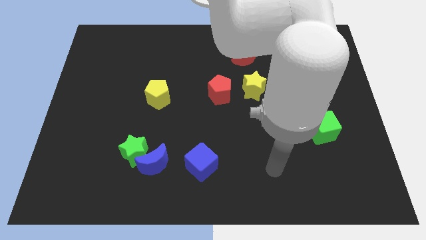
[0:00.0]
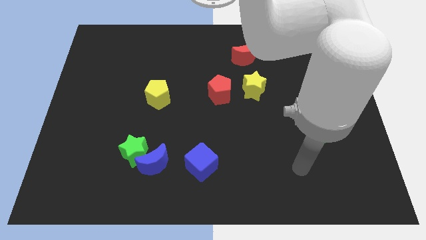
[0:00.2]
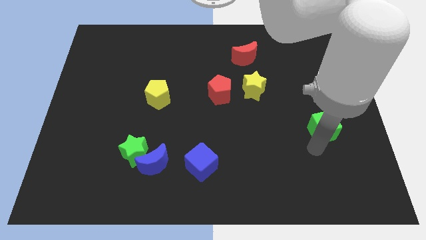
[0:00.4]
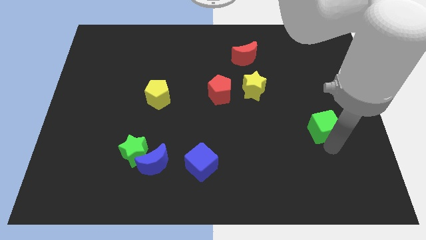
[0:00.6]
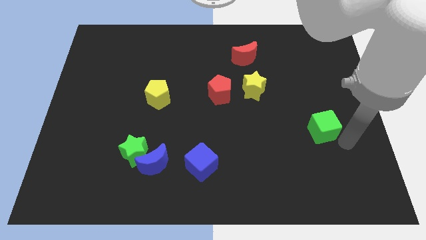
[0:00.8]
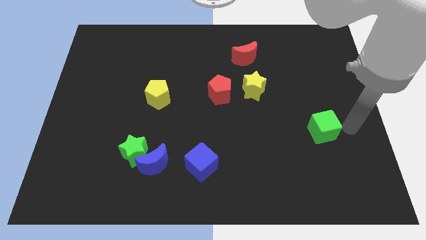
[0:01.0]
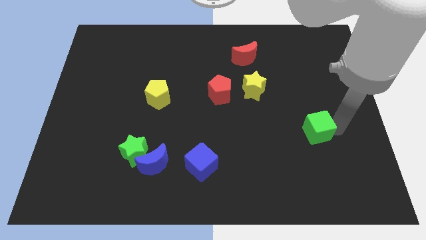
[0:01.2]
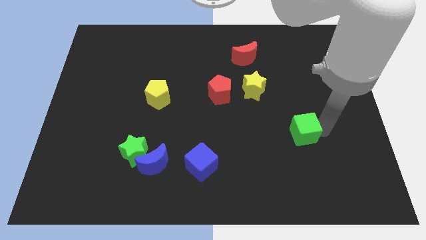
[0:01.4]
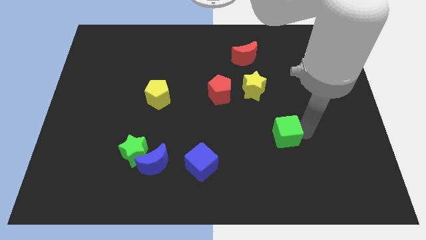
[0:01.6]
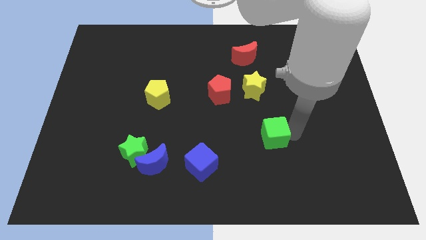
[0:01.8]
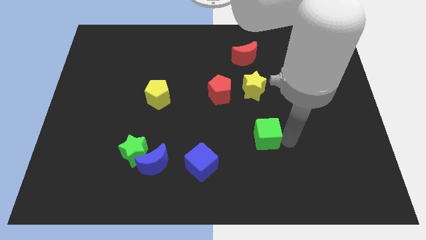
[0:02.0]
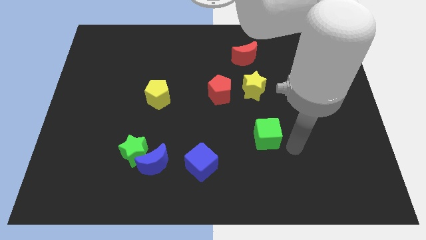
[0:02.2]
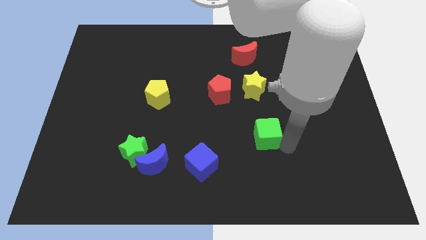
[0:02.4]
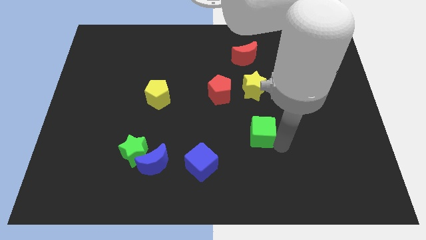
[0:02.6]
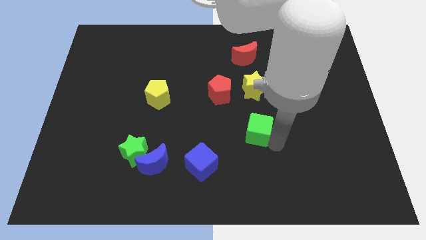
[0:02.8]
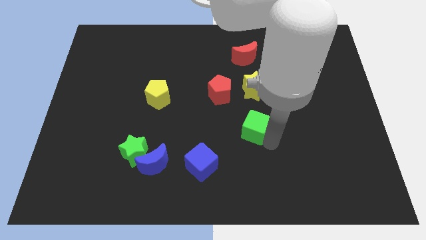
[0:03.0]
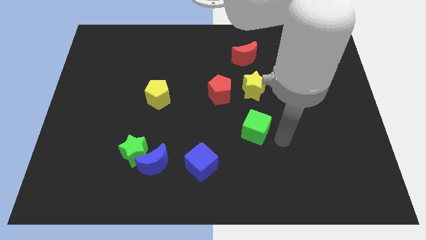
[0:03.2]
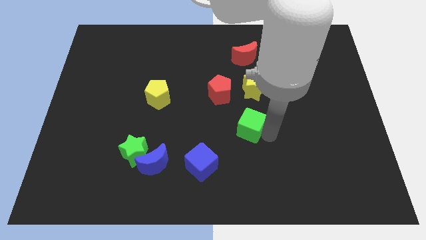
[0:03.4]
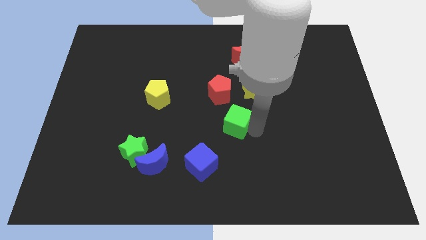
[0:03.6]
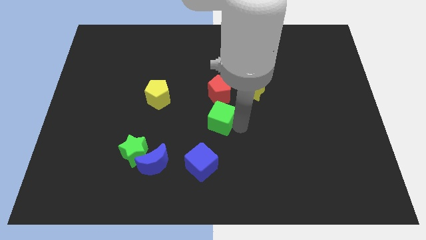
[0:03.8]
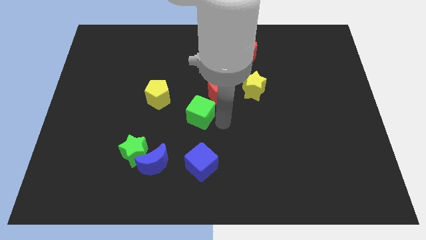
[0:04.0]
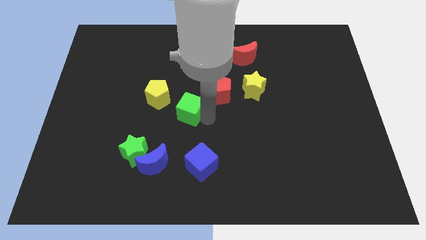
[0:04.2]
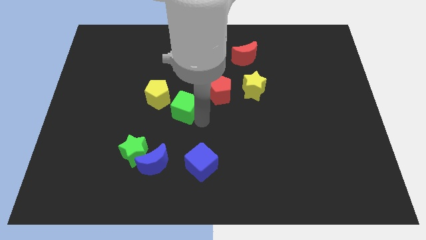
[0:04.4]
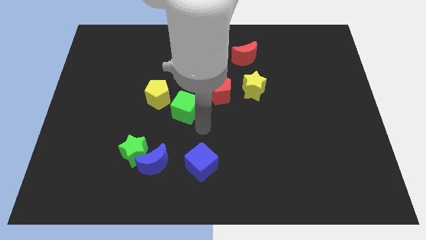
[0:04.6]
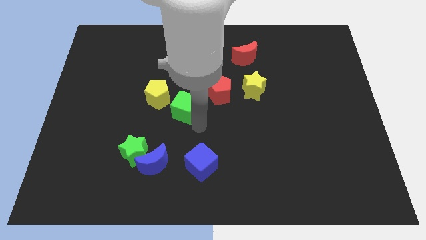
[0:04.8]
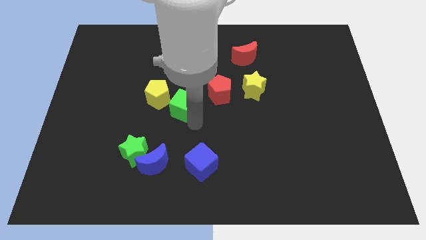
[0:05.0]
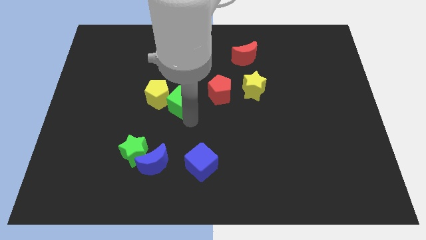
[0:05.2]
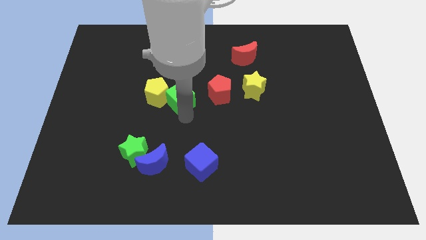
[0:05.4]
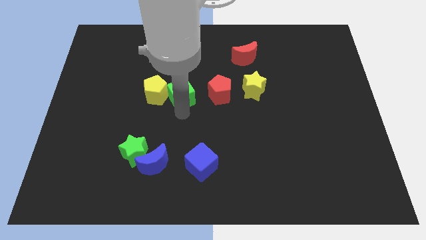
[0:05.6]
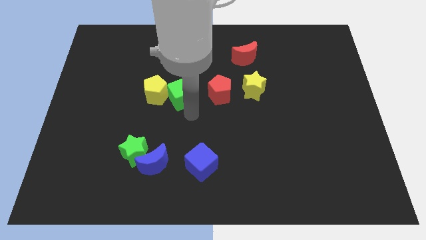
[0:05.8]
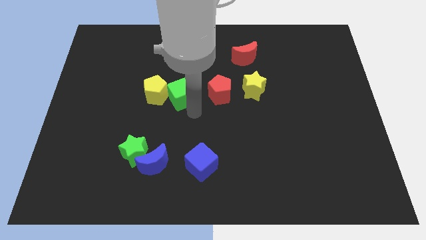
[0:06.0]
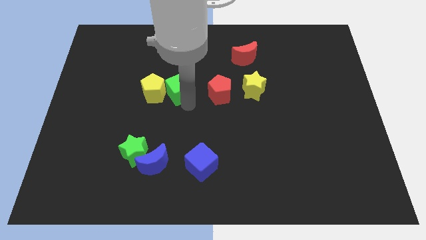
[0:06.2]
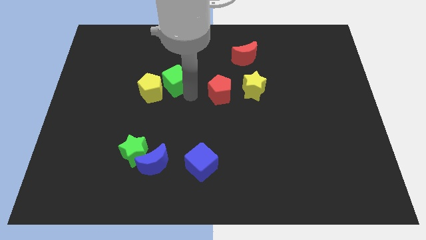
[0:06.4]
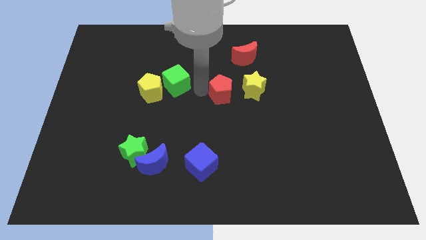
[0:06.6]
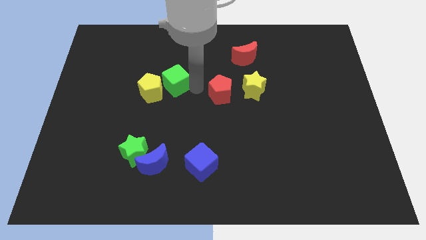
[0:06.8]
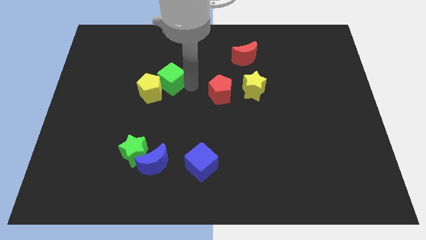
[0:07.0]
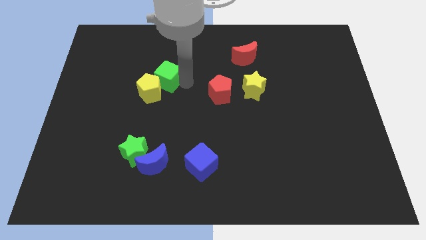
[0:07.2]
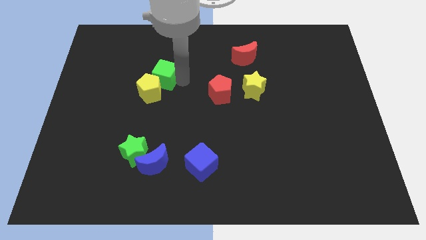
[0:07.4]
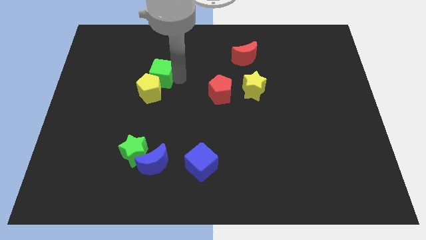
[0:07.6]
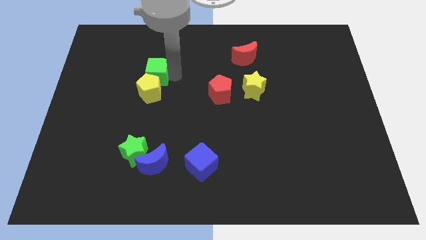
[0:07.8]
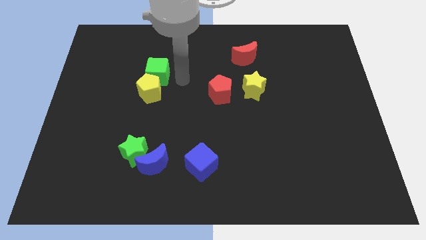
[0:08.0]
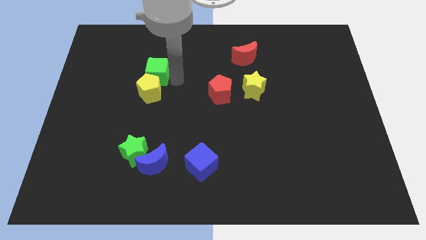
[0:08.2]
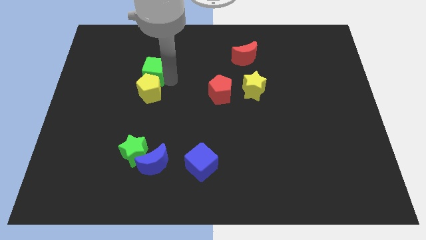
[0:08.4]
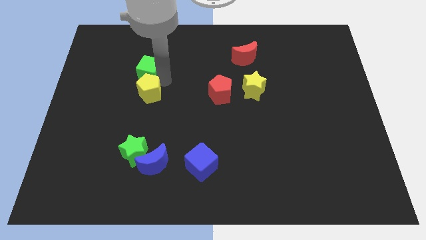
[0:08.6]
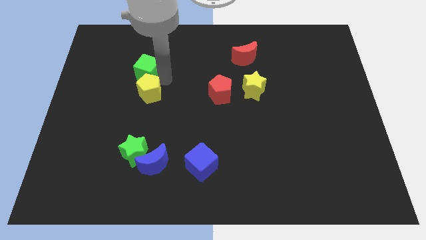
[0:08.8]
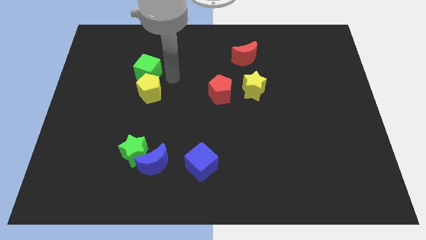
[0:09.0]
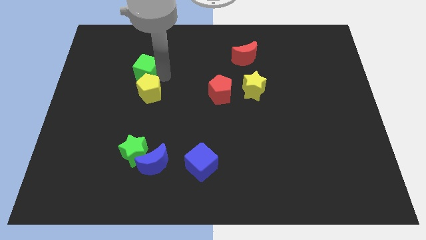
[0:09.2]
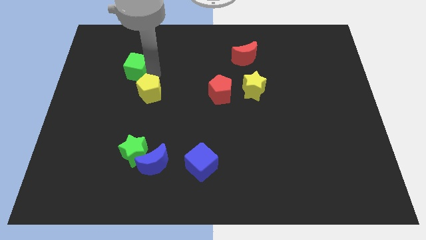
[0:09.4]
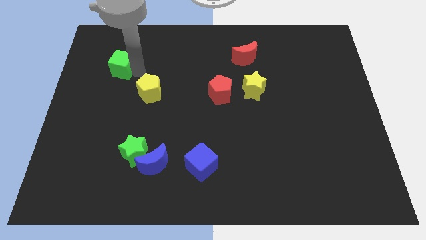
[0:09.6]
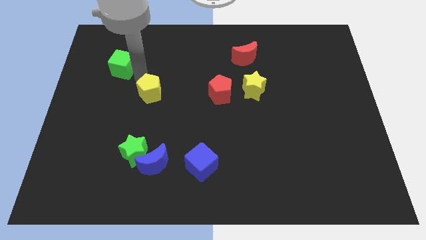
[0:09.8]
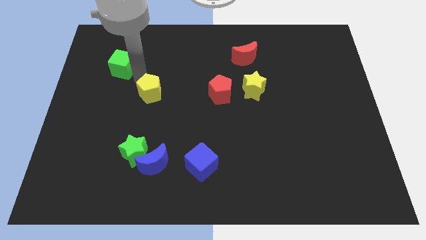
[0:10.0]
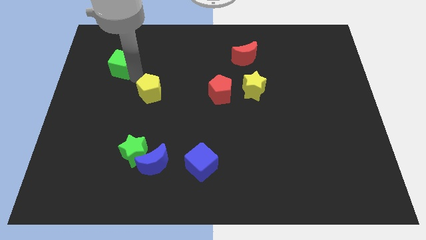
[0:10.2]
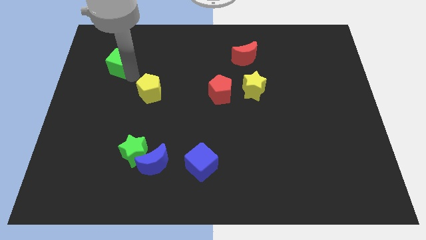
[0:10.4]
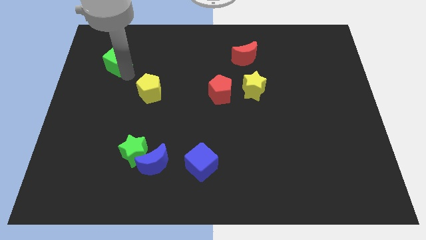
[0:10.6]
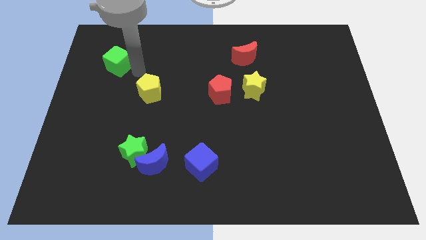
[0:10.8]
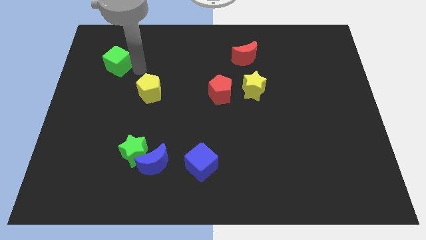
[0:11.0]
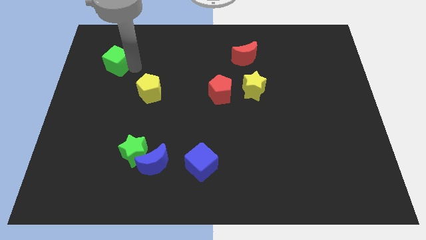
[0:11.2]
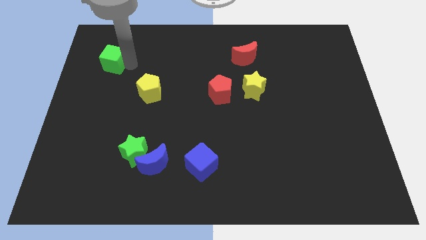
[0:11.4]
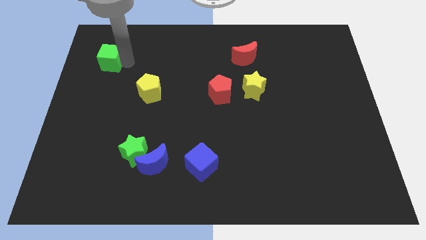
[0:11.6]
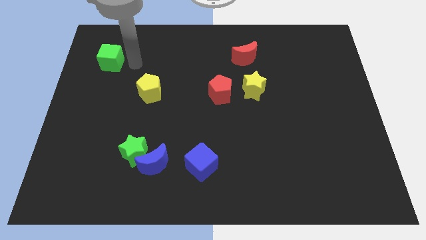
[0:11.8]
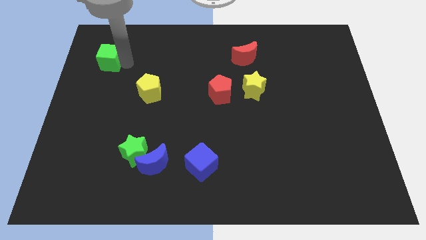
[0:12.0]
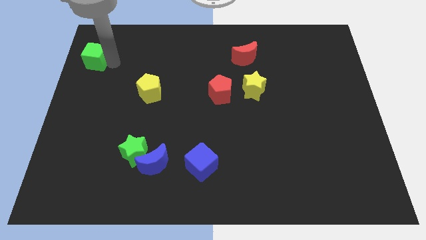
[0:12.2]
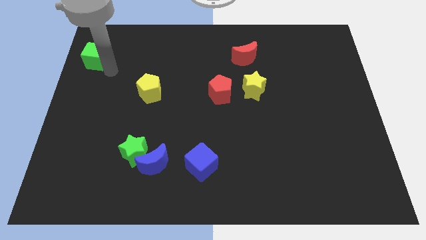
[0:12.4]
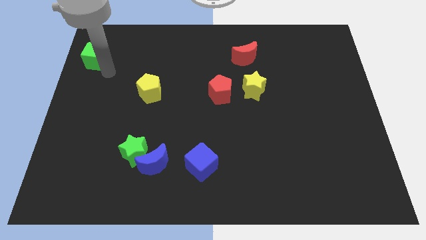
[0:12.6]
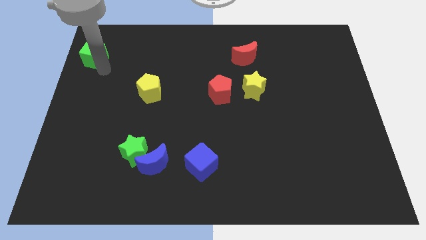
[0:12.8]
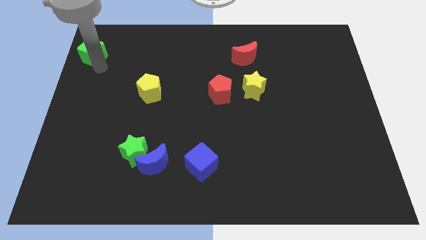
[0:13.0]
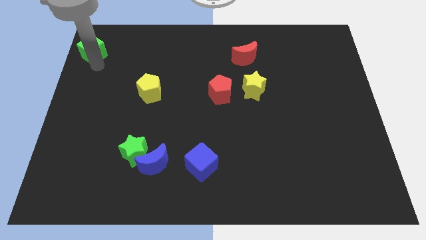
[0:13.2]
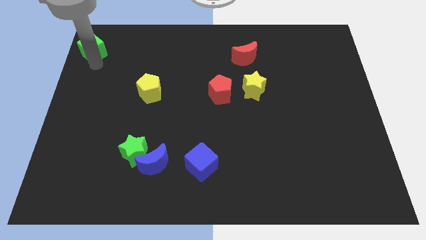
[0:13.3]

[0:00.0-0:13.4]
push the green cube to the top left of the board
